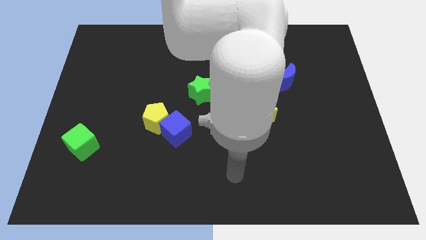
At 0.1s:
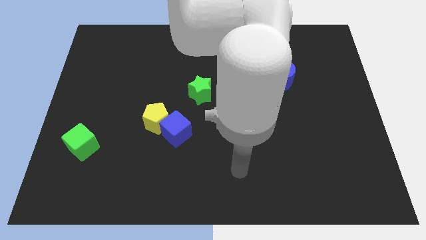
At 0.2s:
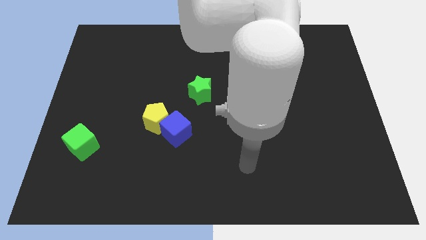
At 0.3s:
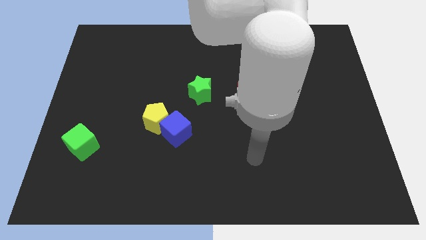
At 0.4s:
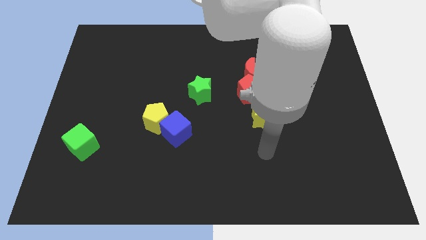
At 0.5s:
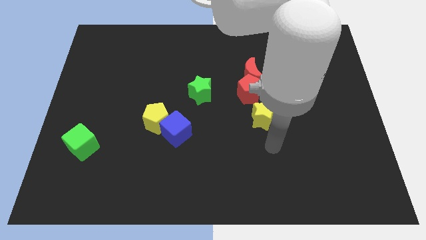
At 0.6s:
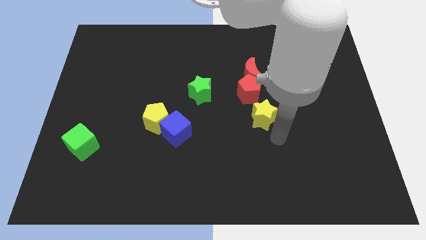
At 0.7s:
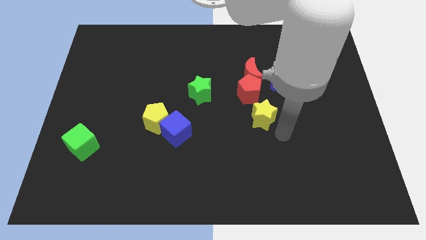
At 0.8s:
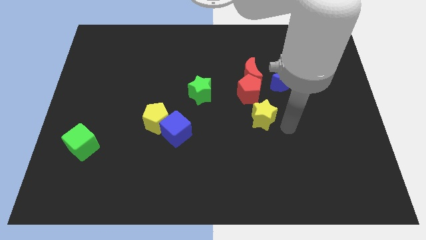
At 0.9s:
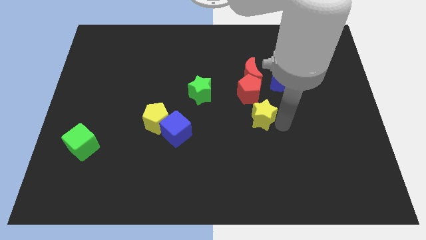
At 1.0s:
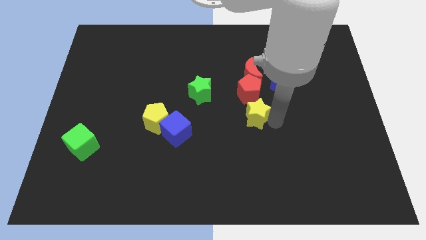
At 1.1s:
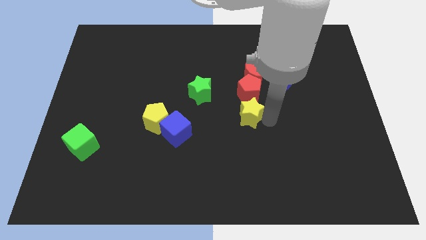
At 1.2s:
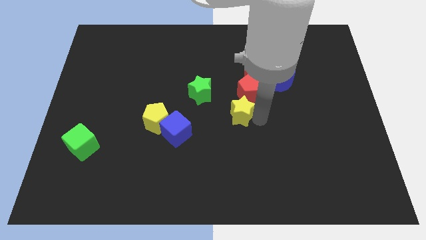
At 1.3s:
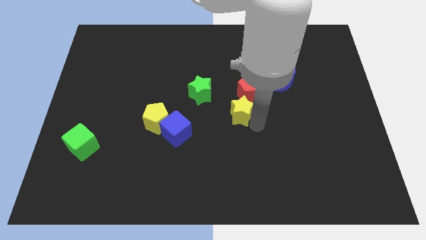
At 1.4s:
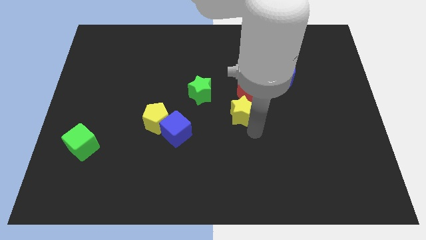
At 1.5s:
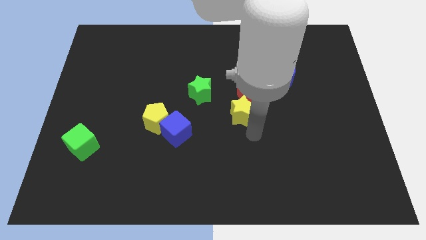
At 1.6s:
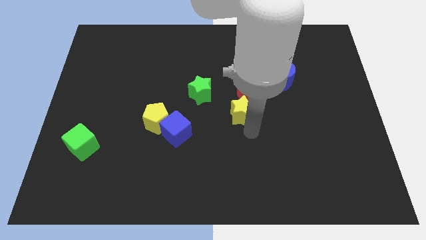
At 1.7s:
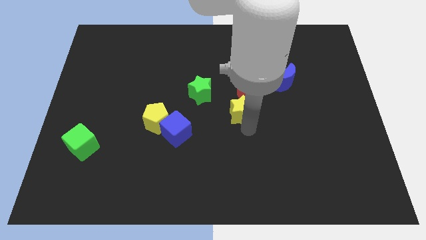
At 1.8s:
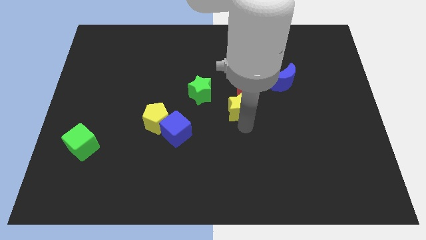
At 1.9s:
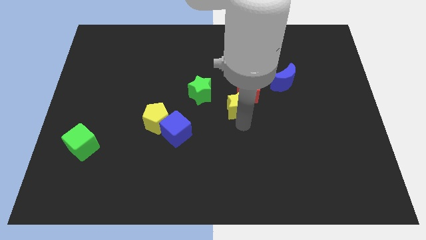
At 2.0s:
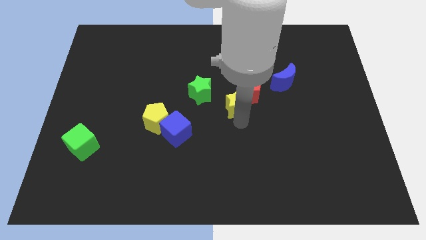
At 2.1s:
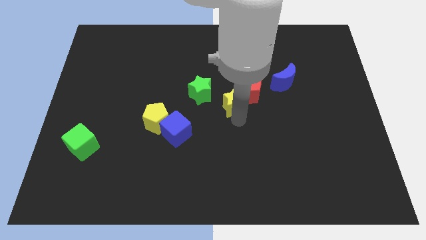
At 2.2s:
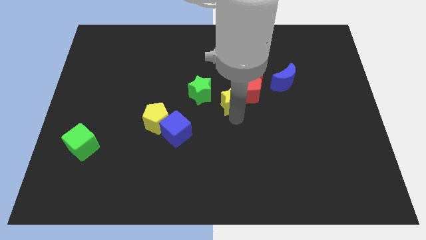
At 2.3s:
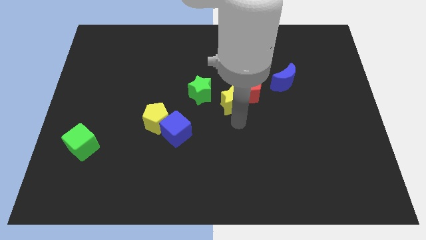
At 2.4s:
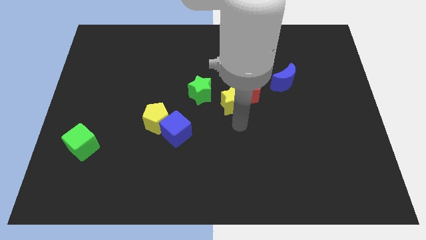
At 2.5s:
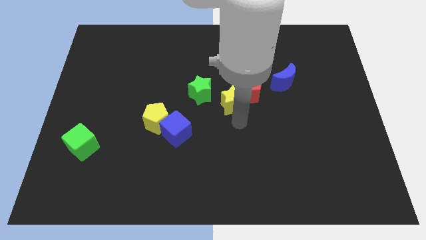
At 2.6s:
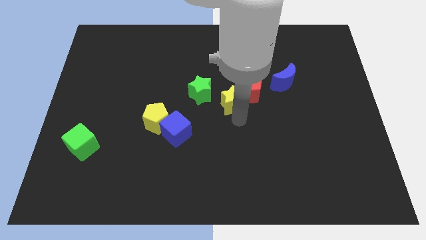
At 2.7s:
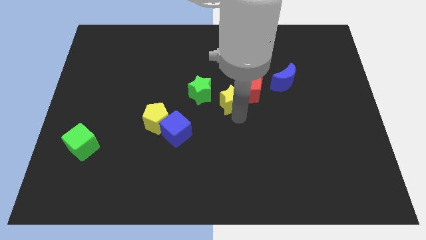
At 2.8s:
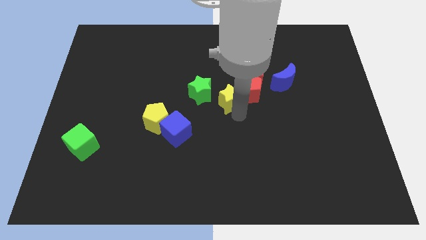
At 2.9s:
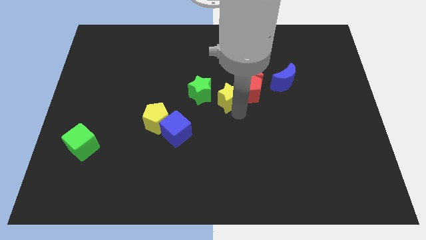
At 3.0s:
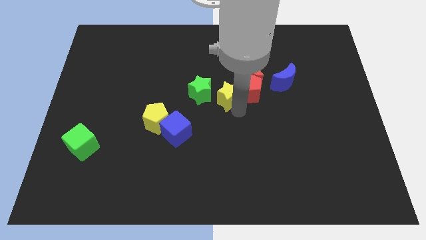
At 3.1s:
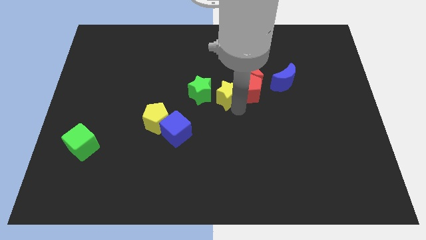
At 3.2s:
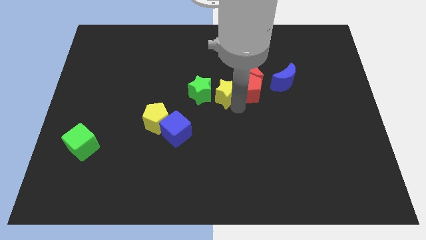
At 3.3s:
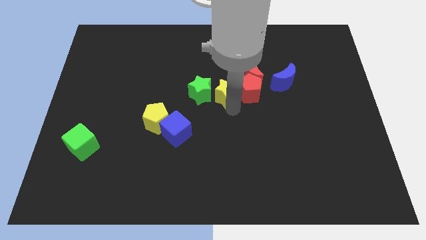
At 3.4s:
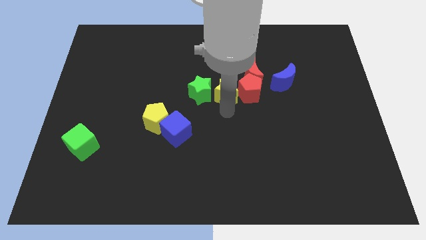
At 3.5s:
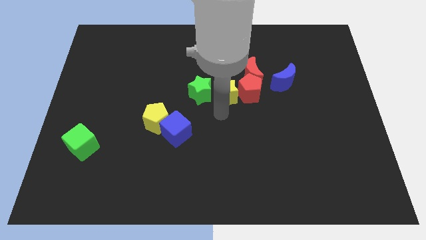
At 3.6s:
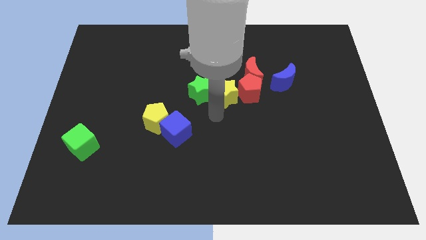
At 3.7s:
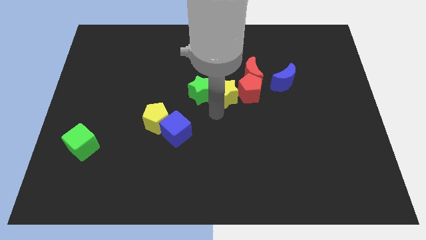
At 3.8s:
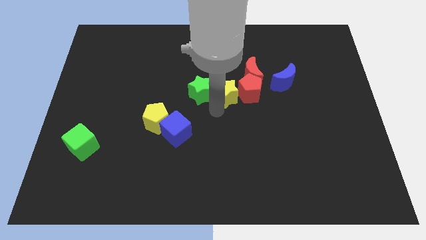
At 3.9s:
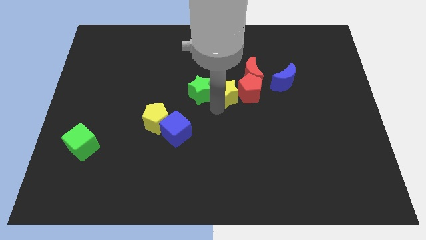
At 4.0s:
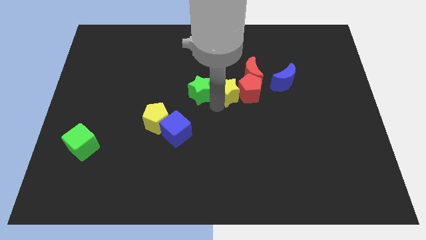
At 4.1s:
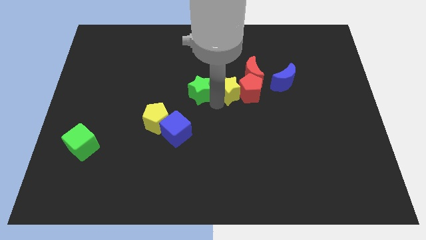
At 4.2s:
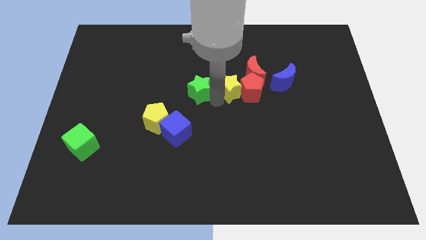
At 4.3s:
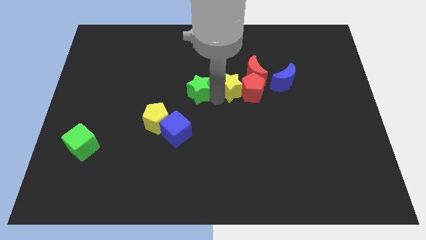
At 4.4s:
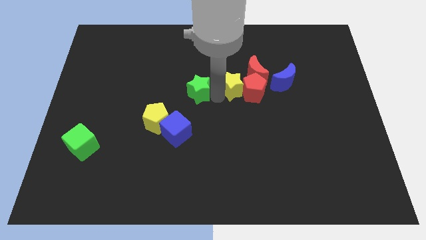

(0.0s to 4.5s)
slightly push the yellow star upwards

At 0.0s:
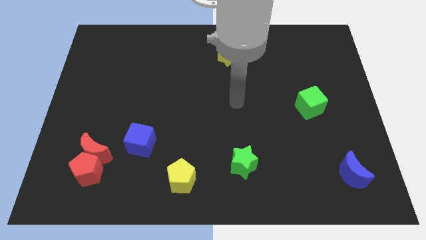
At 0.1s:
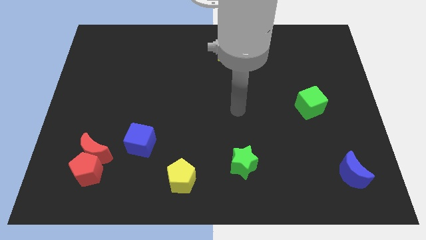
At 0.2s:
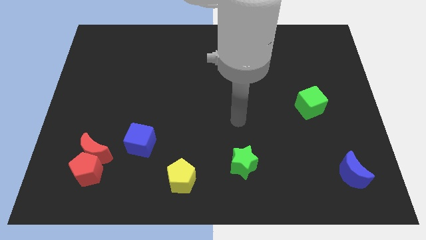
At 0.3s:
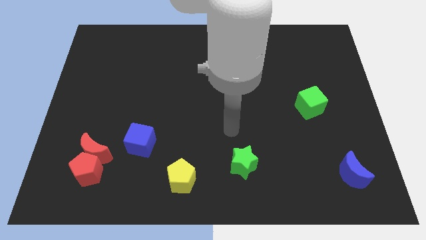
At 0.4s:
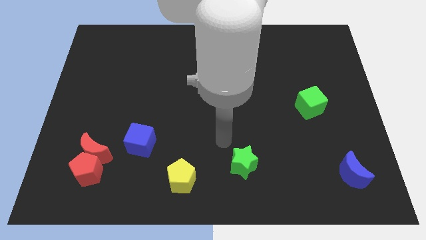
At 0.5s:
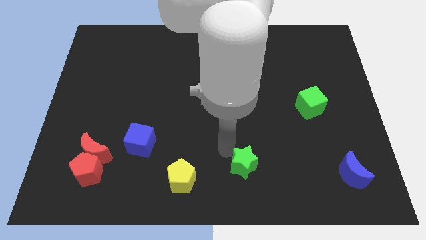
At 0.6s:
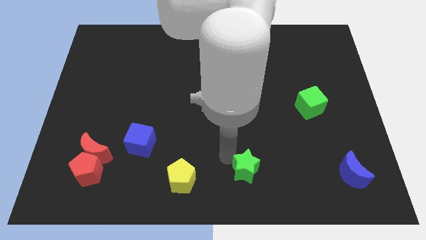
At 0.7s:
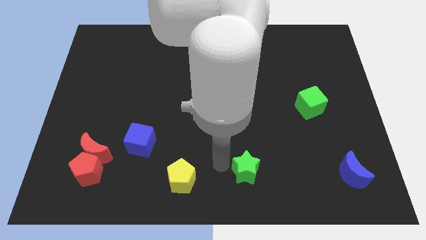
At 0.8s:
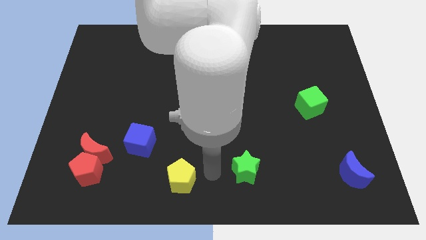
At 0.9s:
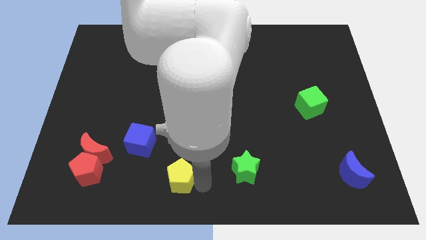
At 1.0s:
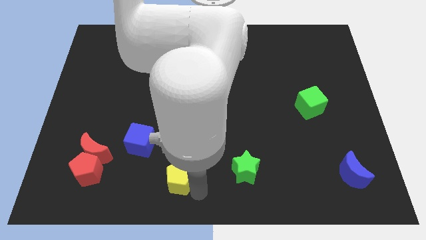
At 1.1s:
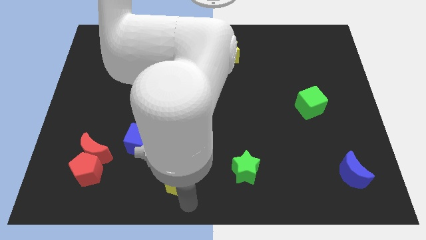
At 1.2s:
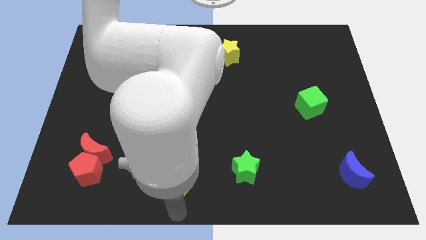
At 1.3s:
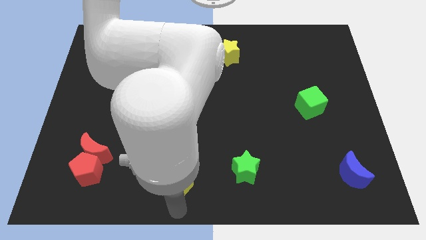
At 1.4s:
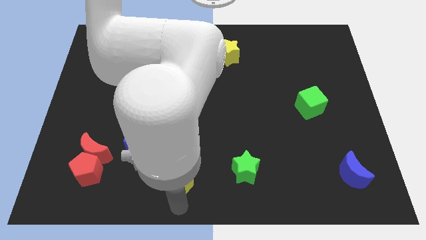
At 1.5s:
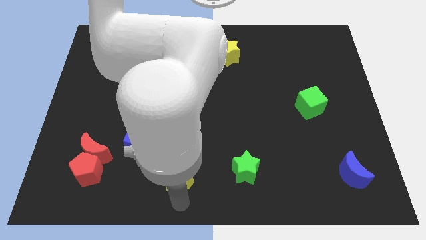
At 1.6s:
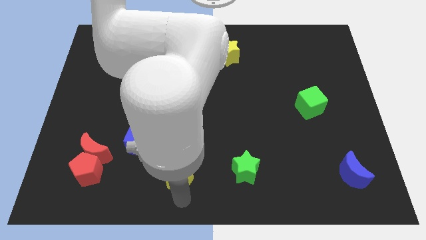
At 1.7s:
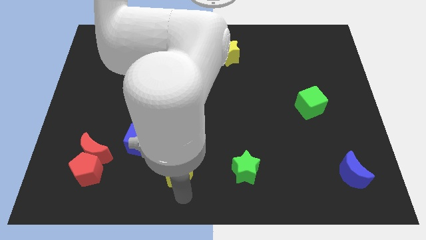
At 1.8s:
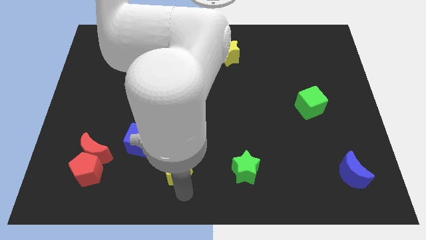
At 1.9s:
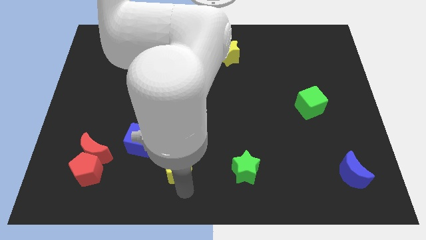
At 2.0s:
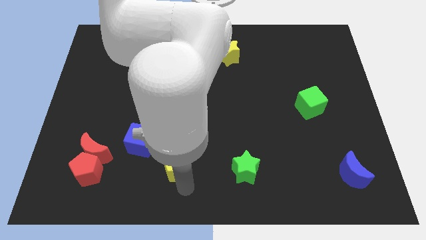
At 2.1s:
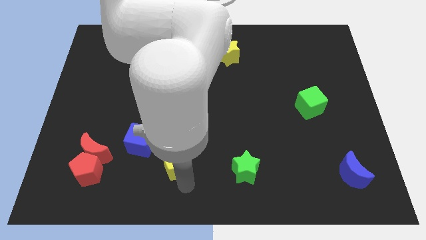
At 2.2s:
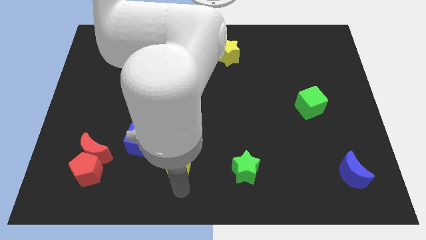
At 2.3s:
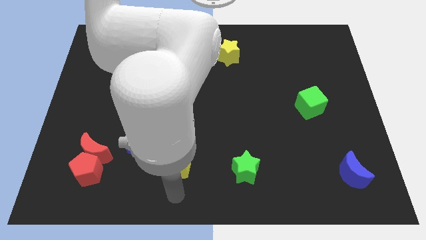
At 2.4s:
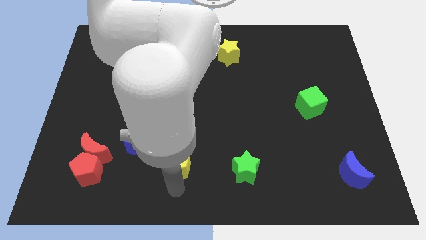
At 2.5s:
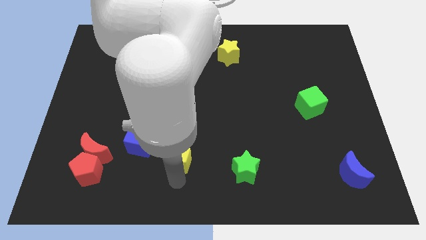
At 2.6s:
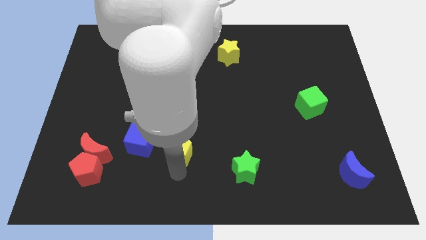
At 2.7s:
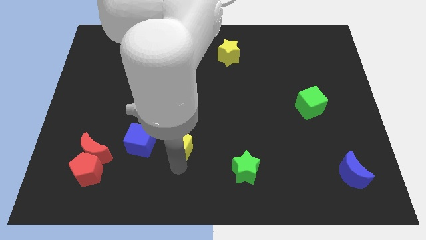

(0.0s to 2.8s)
slightly slide the yellow pentagon upwards

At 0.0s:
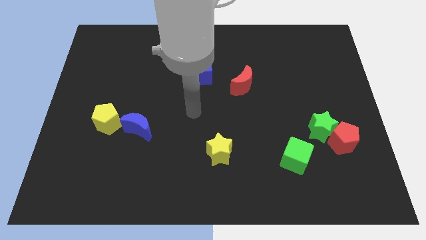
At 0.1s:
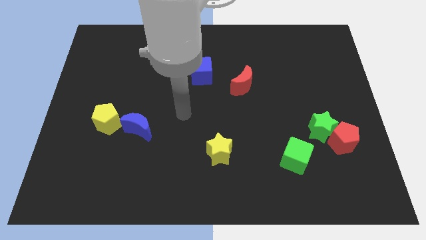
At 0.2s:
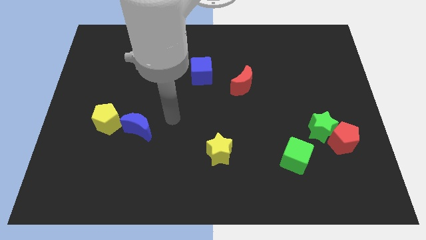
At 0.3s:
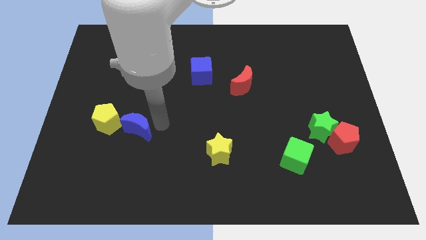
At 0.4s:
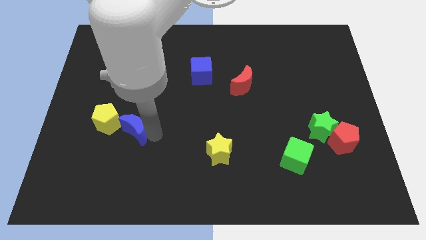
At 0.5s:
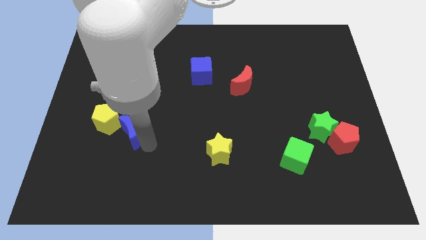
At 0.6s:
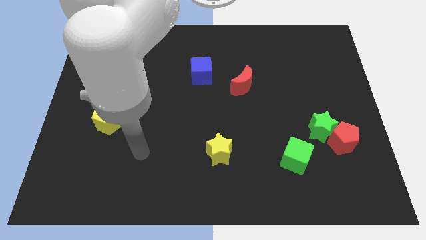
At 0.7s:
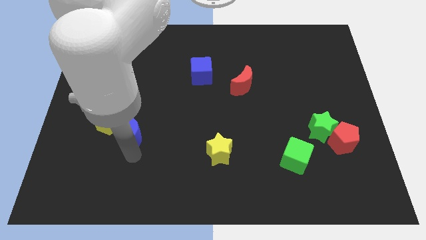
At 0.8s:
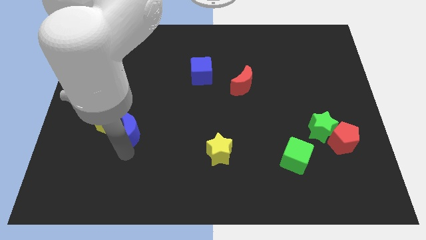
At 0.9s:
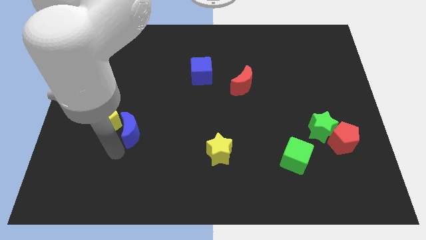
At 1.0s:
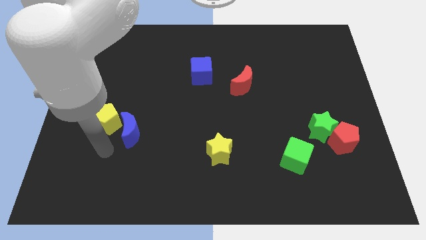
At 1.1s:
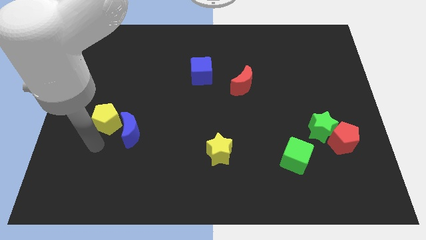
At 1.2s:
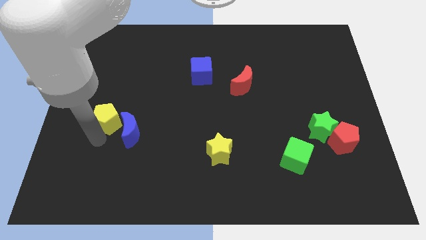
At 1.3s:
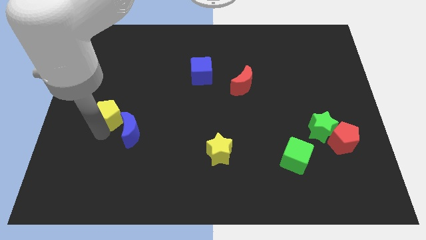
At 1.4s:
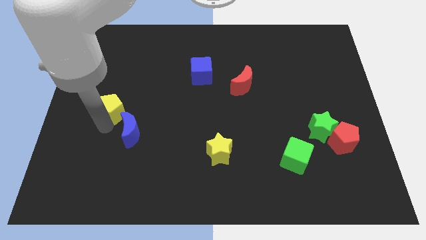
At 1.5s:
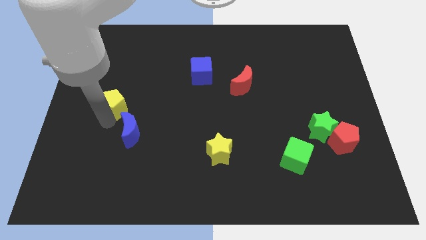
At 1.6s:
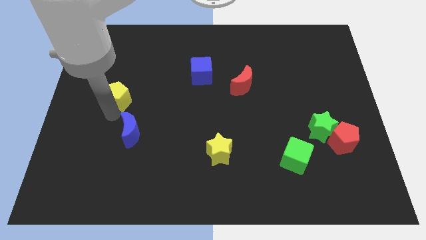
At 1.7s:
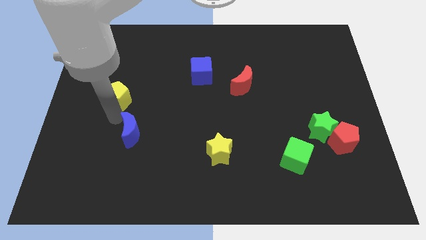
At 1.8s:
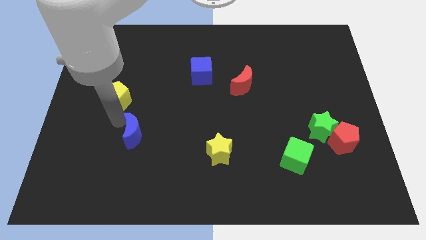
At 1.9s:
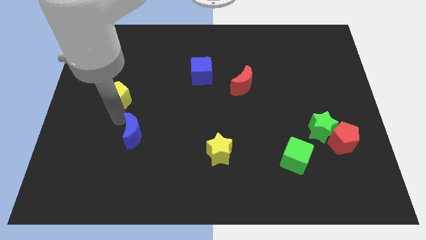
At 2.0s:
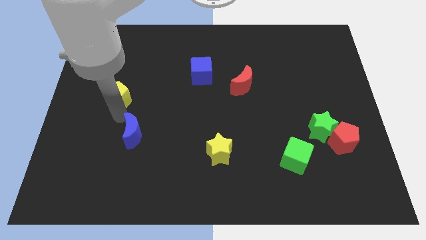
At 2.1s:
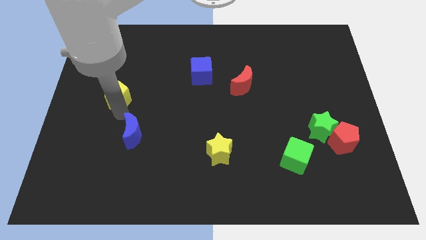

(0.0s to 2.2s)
push the yellow pentagon slightly upwards
